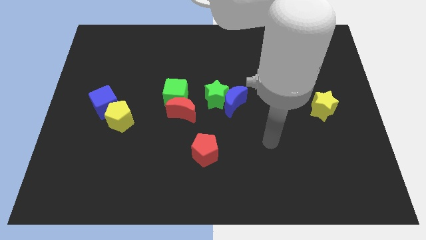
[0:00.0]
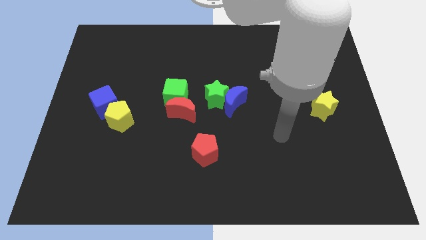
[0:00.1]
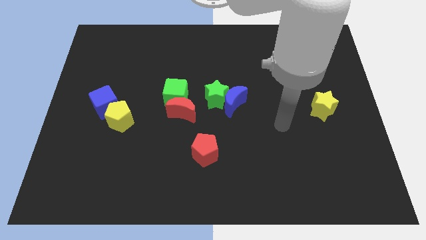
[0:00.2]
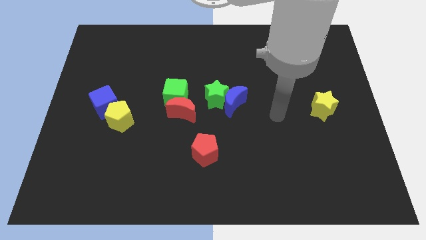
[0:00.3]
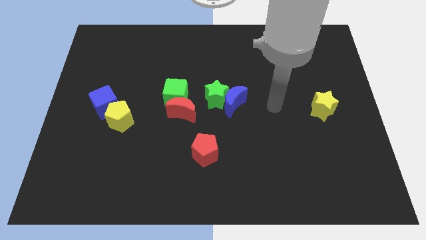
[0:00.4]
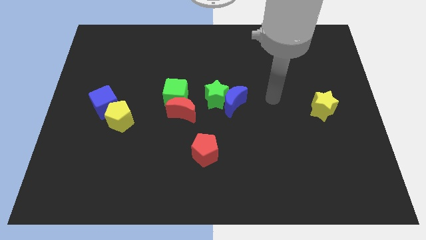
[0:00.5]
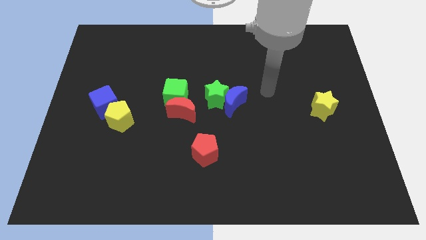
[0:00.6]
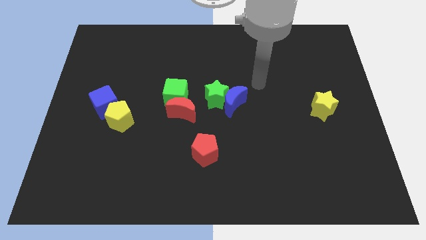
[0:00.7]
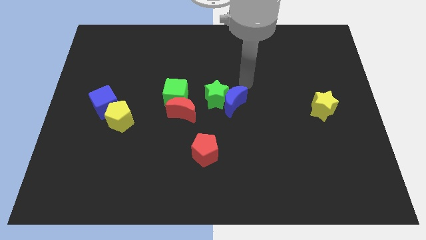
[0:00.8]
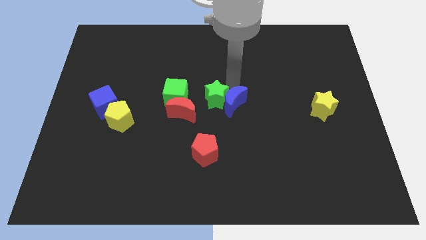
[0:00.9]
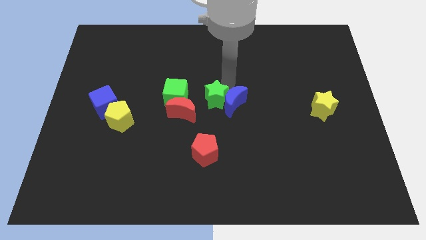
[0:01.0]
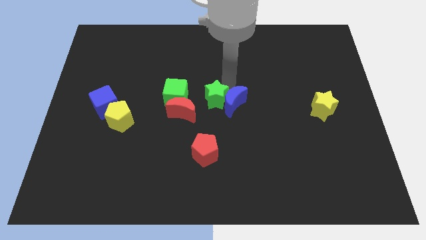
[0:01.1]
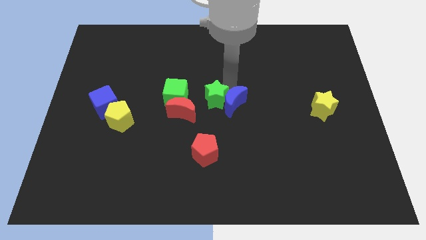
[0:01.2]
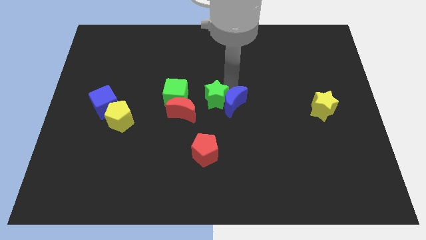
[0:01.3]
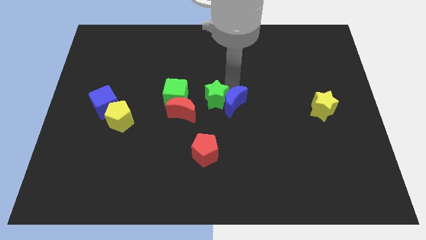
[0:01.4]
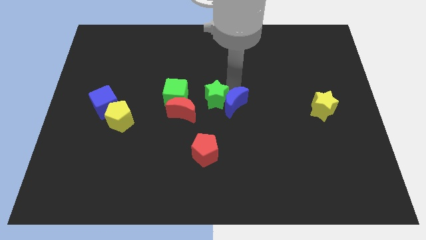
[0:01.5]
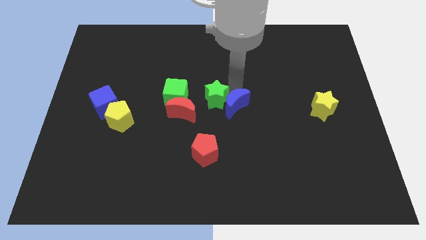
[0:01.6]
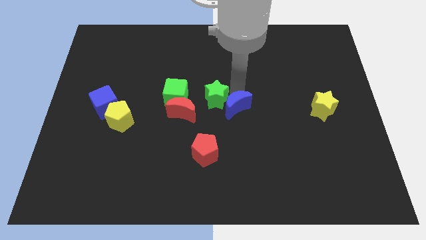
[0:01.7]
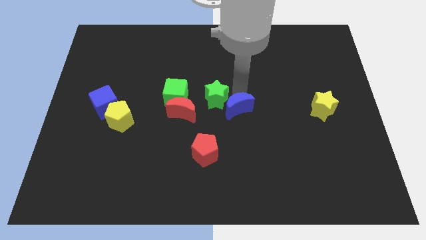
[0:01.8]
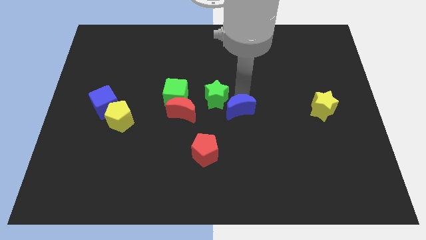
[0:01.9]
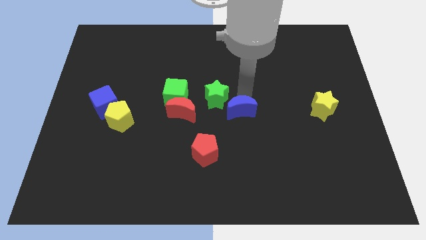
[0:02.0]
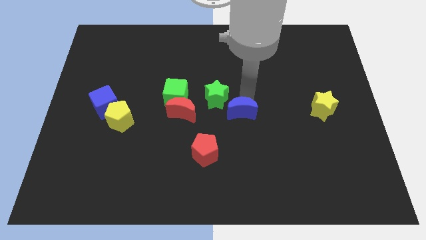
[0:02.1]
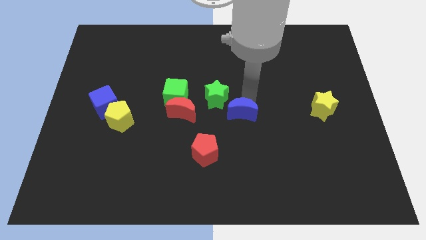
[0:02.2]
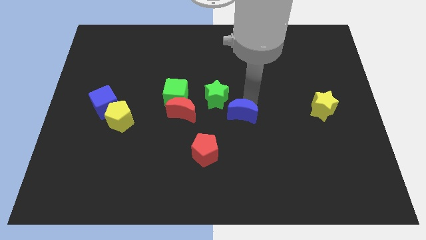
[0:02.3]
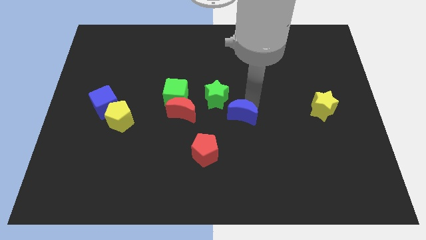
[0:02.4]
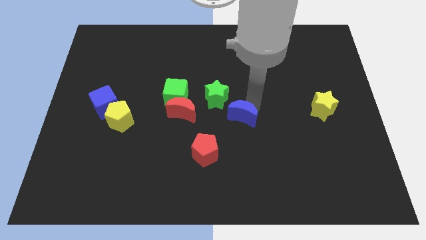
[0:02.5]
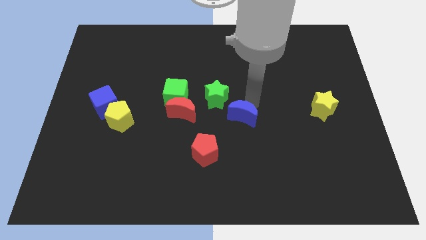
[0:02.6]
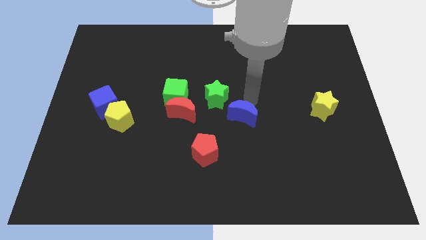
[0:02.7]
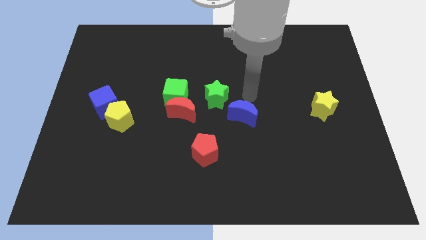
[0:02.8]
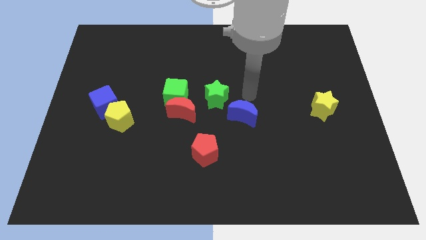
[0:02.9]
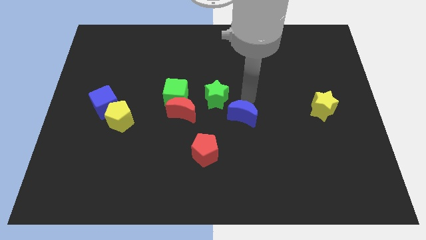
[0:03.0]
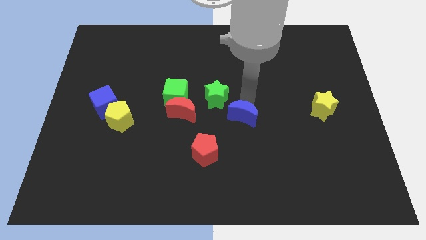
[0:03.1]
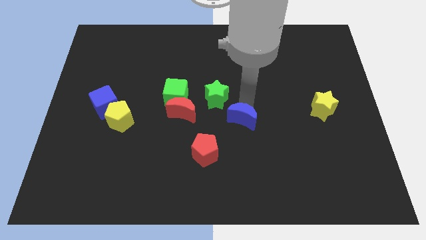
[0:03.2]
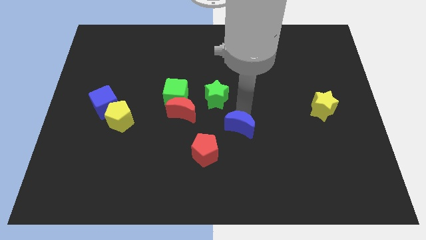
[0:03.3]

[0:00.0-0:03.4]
slide the blue moon somewhat down

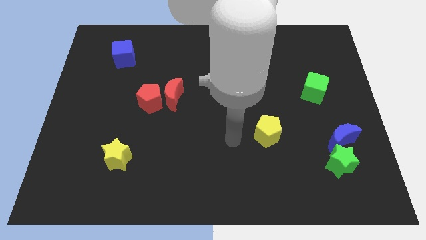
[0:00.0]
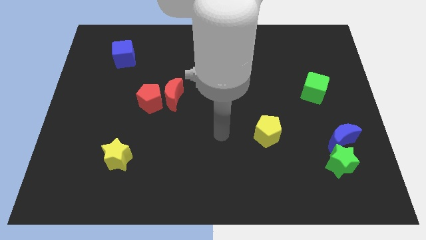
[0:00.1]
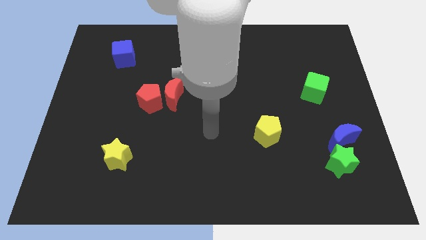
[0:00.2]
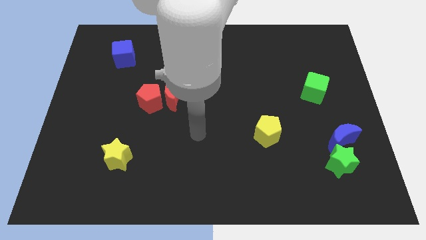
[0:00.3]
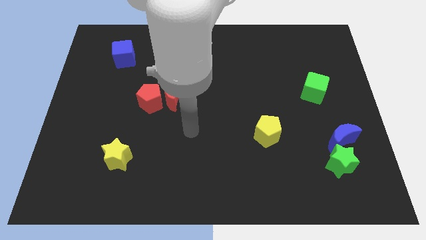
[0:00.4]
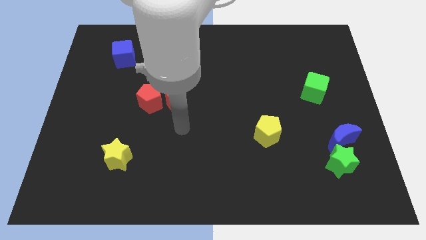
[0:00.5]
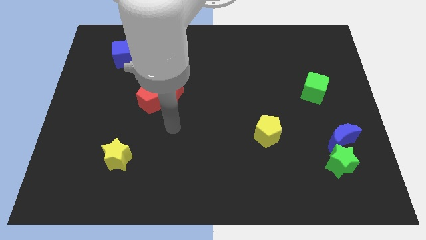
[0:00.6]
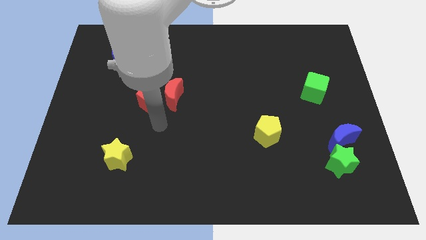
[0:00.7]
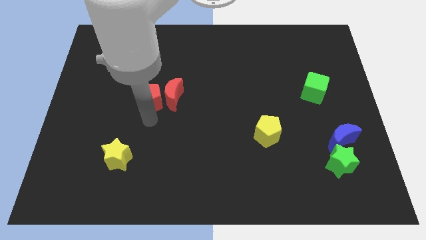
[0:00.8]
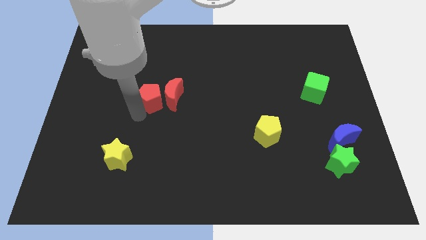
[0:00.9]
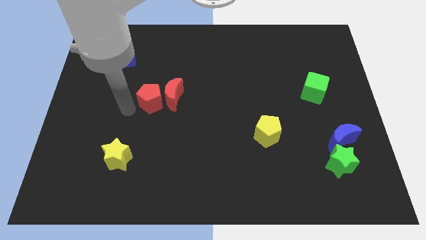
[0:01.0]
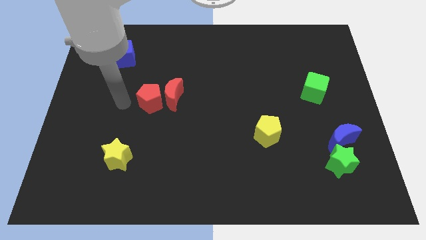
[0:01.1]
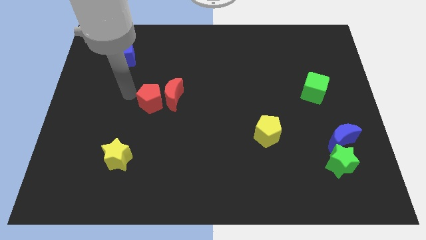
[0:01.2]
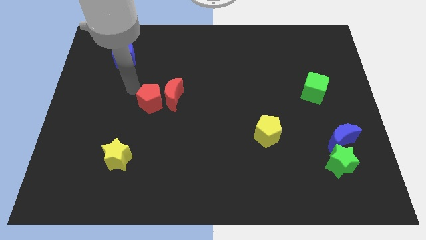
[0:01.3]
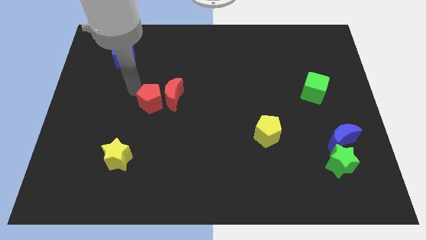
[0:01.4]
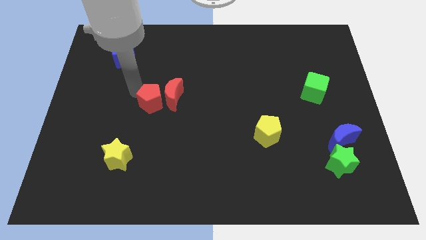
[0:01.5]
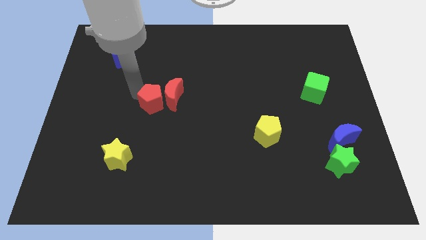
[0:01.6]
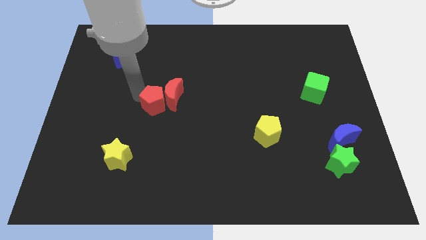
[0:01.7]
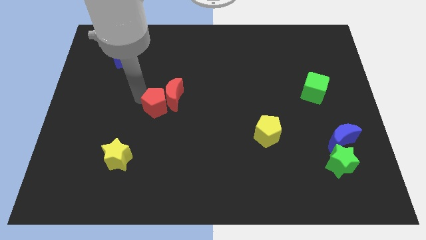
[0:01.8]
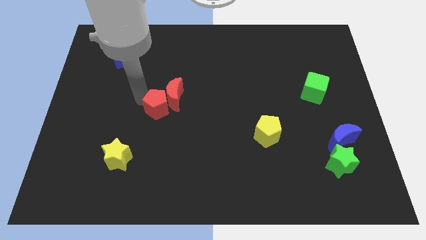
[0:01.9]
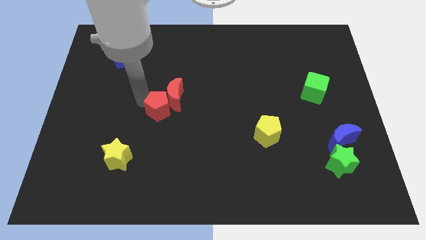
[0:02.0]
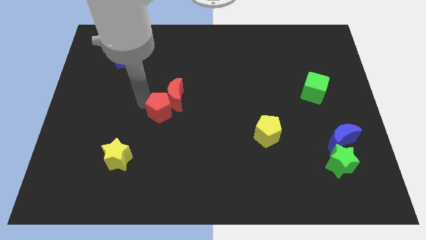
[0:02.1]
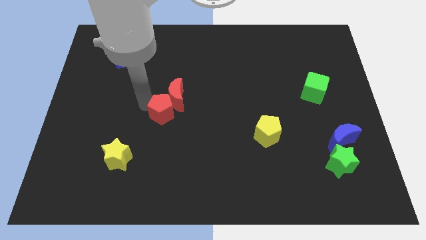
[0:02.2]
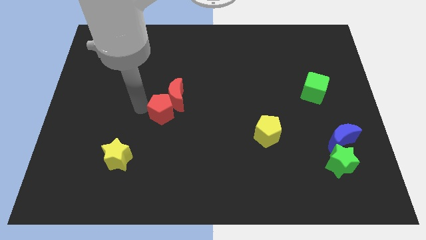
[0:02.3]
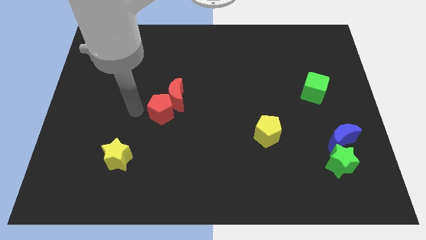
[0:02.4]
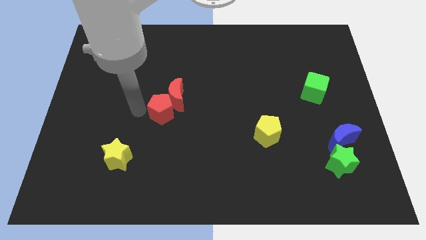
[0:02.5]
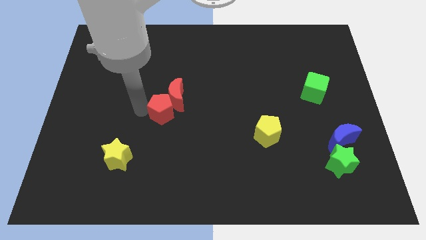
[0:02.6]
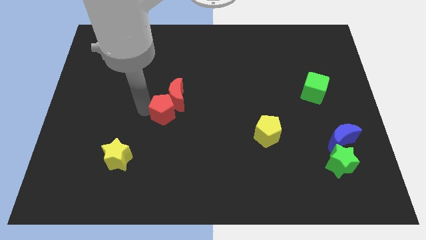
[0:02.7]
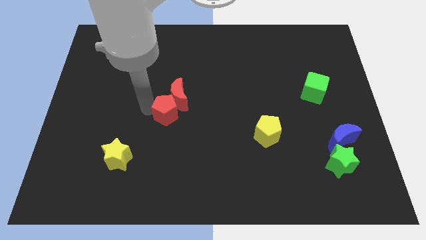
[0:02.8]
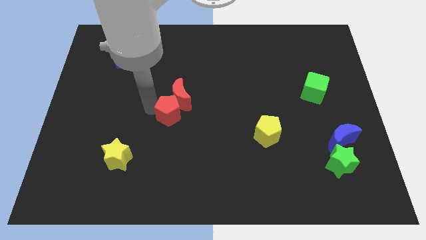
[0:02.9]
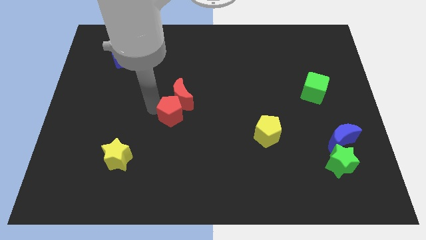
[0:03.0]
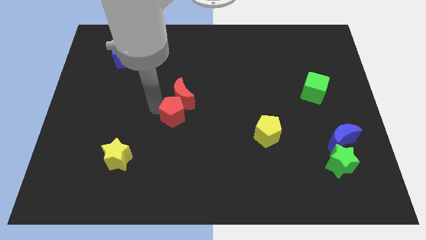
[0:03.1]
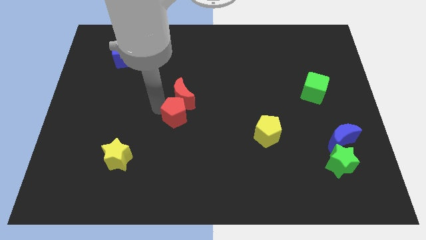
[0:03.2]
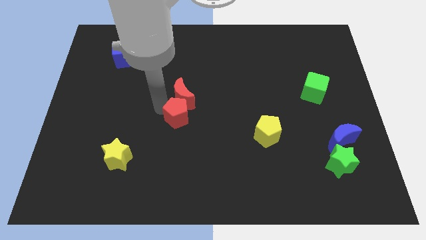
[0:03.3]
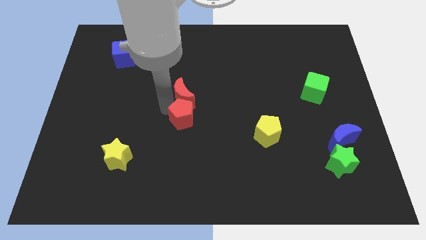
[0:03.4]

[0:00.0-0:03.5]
slightly move the red pentagon right

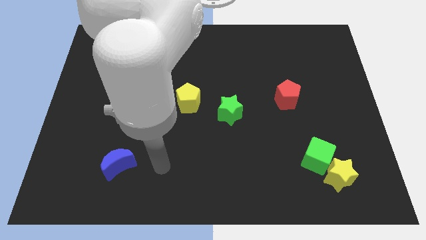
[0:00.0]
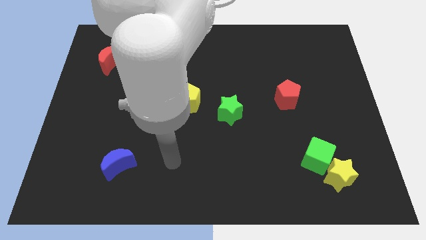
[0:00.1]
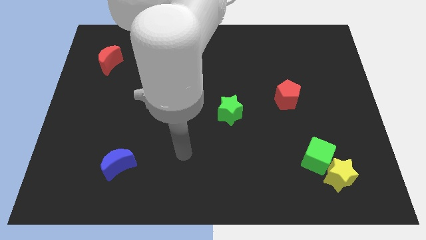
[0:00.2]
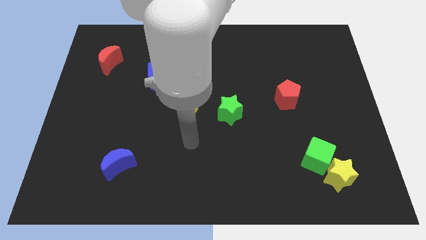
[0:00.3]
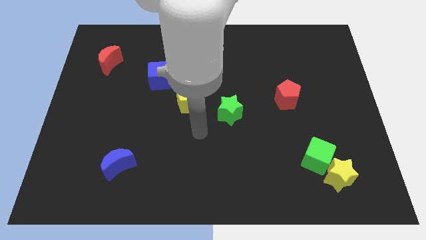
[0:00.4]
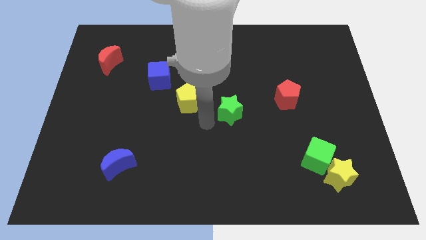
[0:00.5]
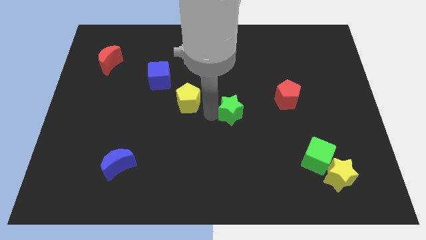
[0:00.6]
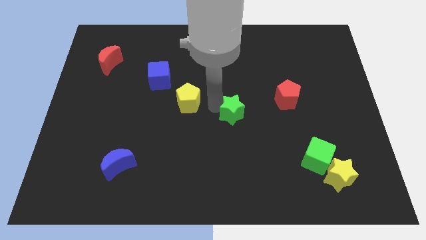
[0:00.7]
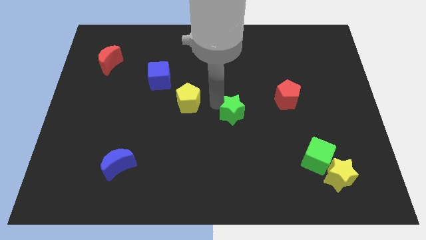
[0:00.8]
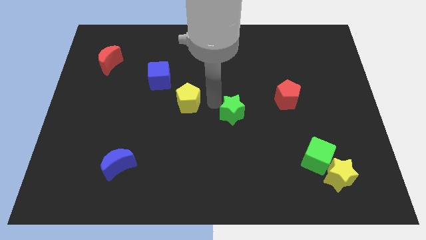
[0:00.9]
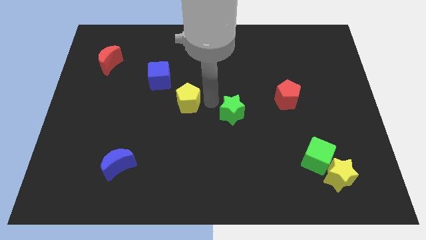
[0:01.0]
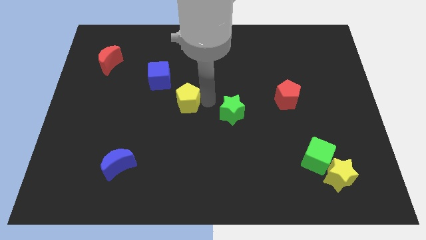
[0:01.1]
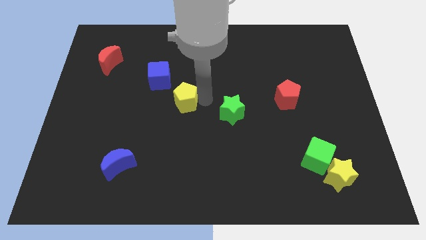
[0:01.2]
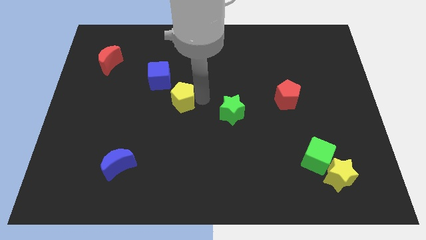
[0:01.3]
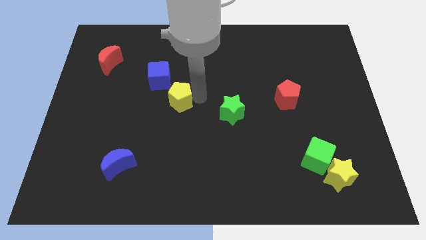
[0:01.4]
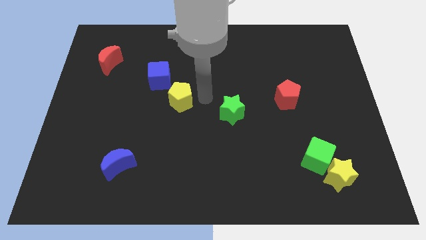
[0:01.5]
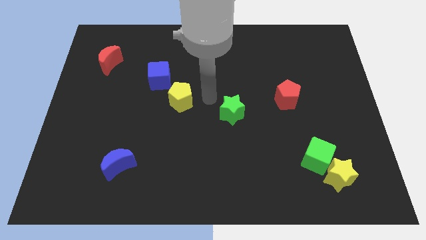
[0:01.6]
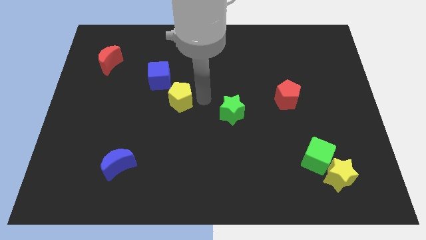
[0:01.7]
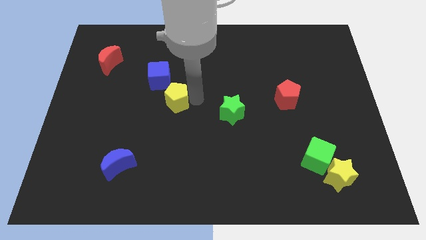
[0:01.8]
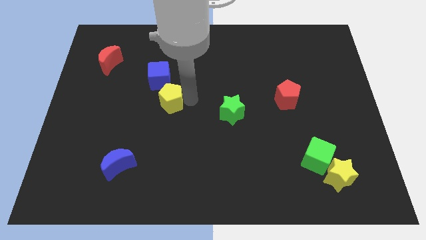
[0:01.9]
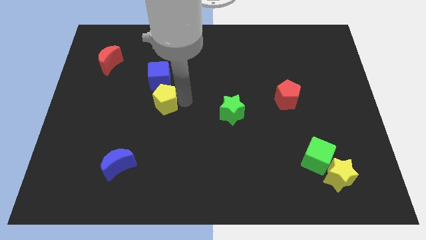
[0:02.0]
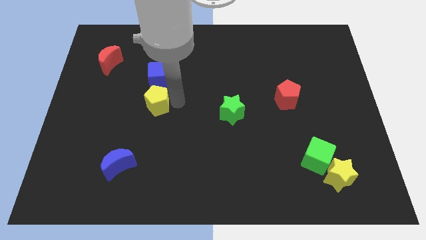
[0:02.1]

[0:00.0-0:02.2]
push the yellow pentagon left slightly
